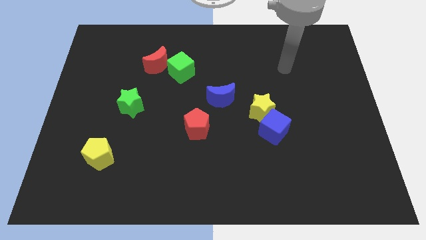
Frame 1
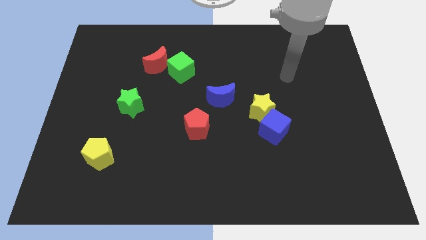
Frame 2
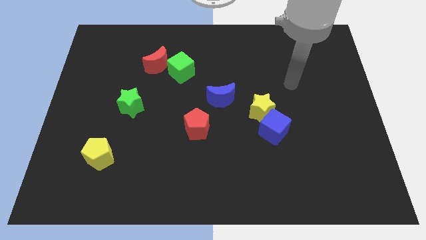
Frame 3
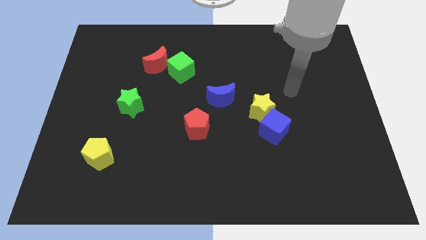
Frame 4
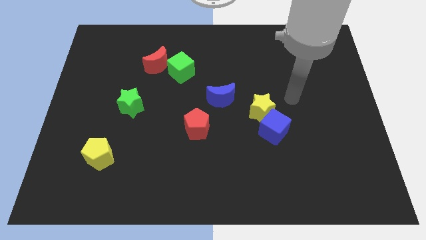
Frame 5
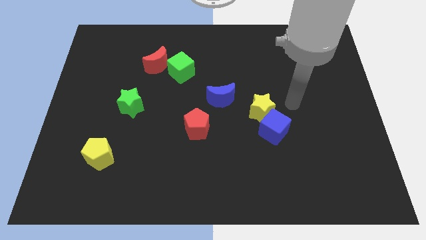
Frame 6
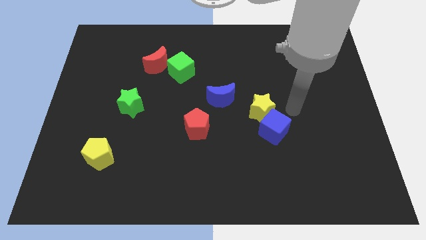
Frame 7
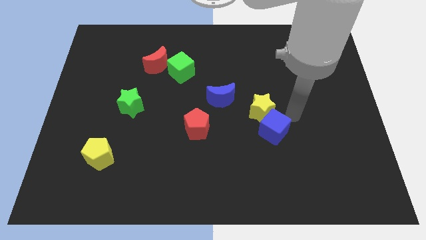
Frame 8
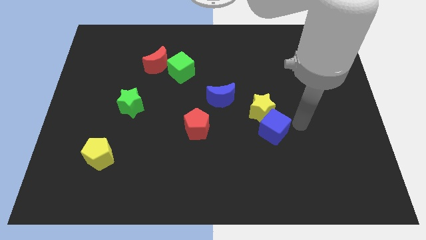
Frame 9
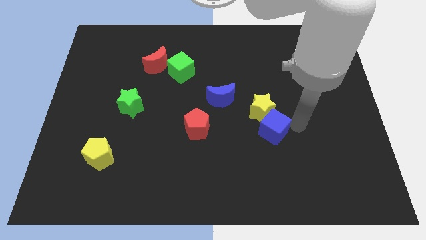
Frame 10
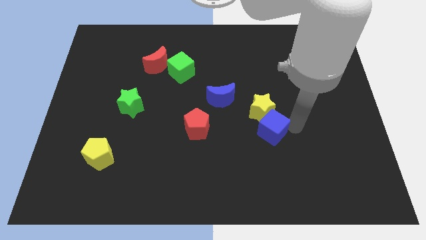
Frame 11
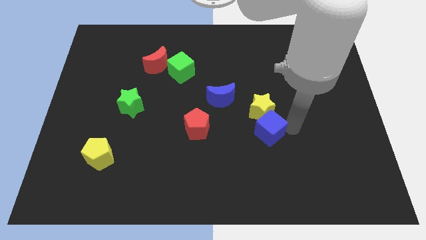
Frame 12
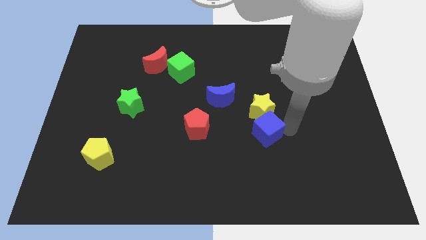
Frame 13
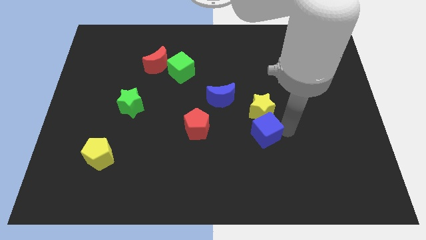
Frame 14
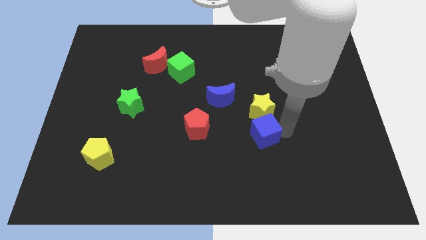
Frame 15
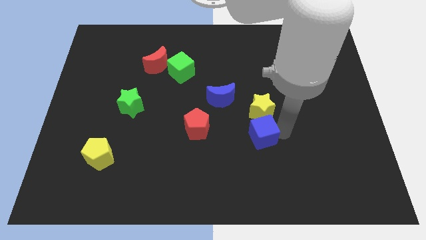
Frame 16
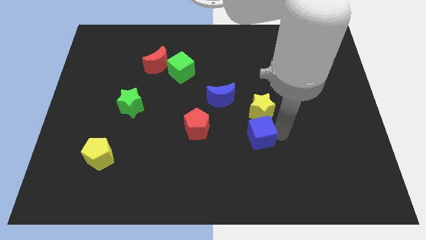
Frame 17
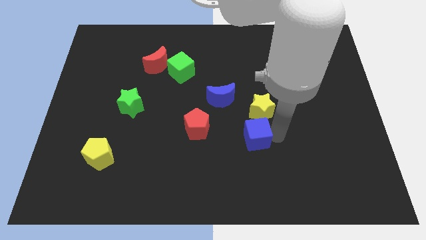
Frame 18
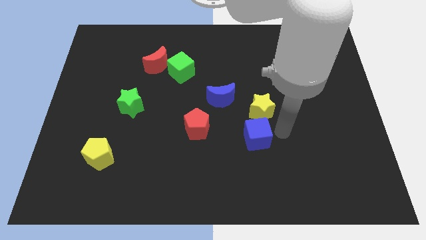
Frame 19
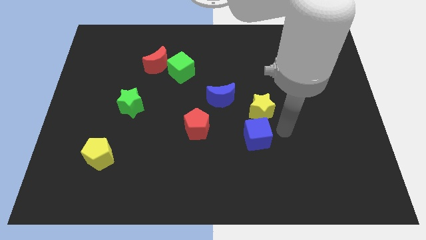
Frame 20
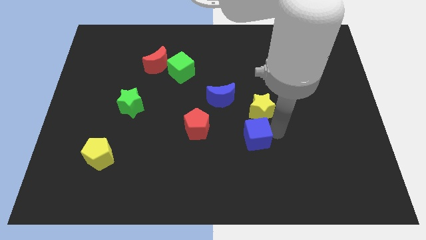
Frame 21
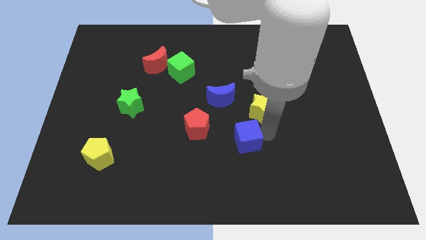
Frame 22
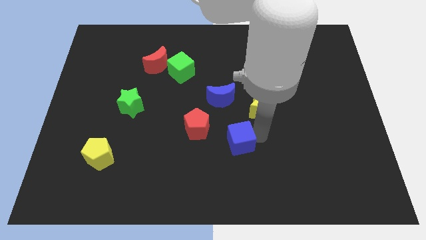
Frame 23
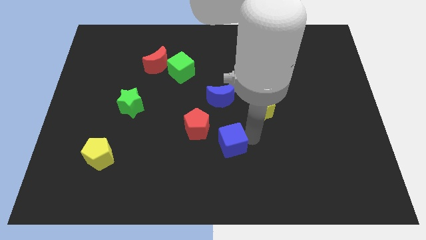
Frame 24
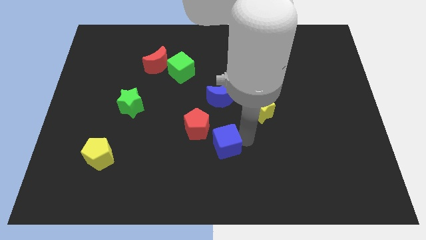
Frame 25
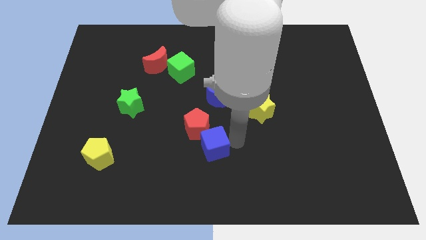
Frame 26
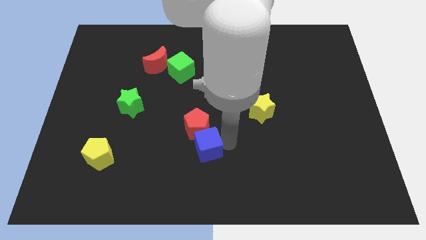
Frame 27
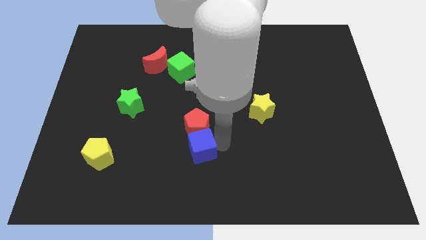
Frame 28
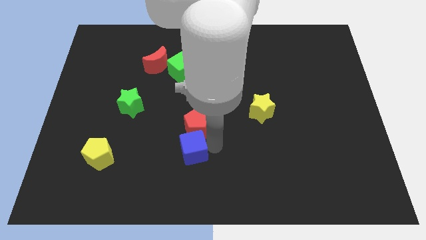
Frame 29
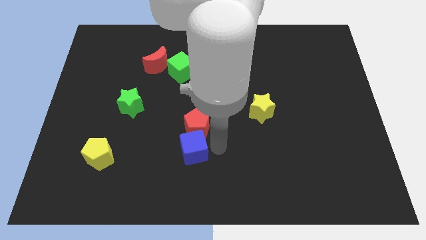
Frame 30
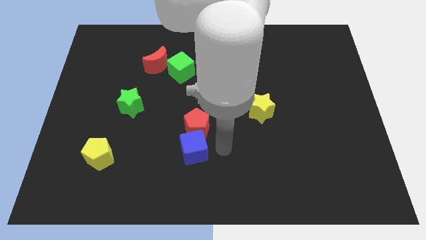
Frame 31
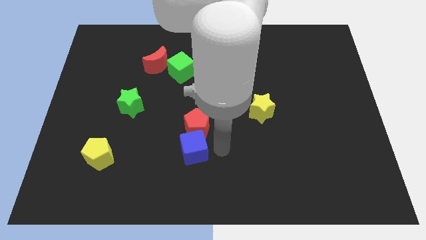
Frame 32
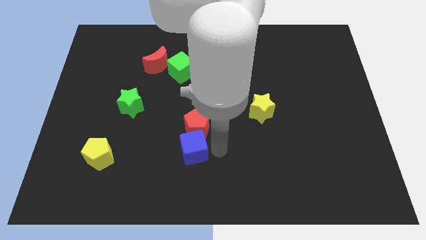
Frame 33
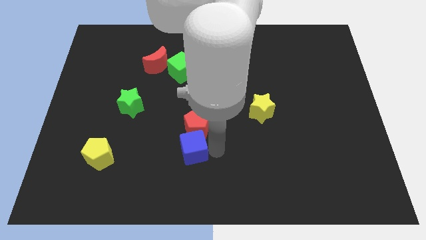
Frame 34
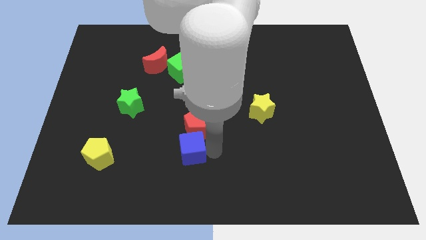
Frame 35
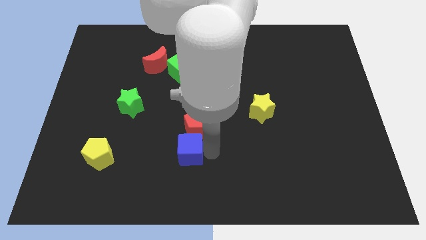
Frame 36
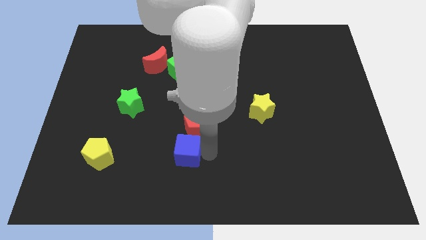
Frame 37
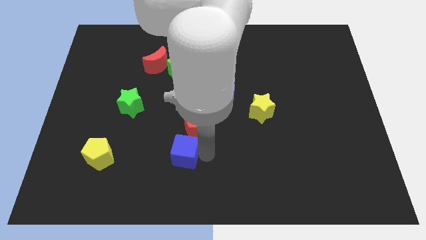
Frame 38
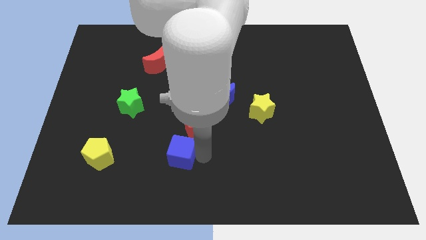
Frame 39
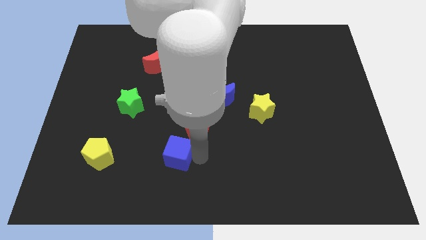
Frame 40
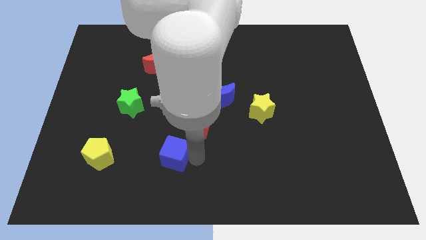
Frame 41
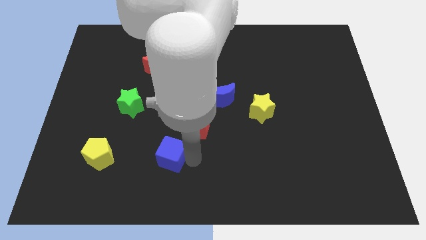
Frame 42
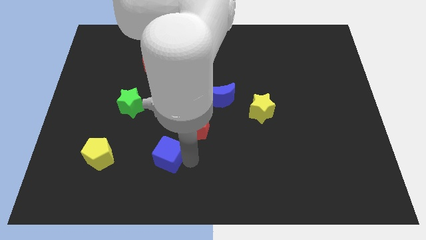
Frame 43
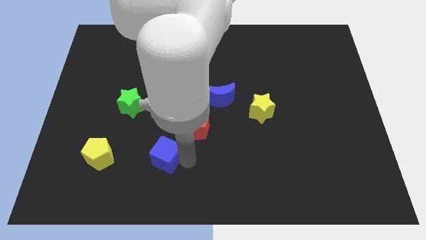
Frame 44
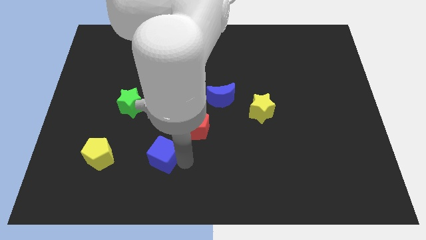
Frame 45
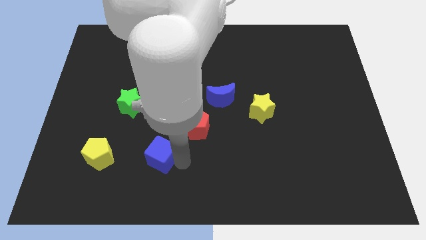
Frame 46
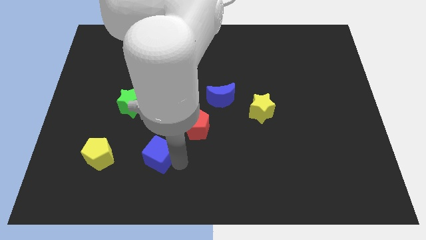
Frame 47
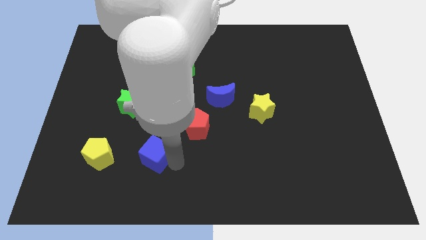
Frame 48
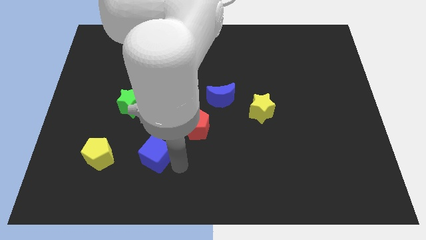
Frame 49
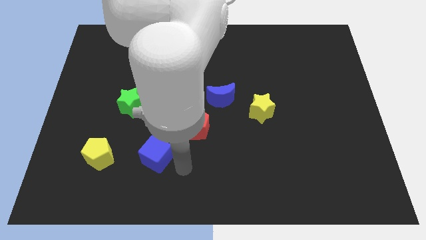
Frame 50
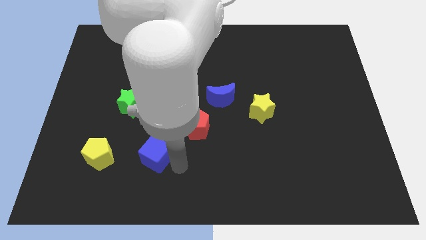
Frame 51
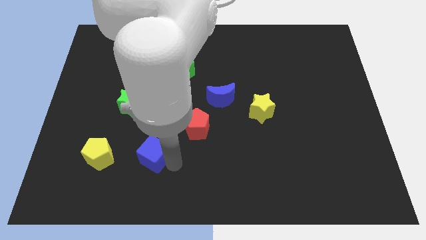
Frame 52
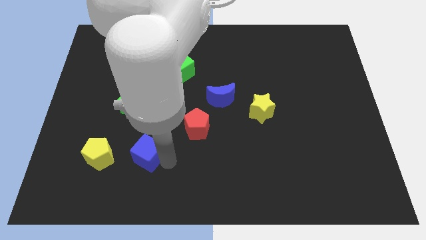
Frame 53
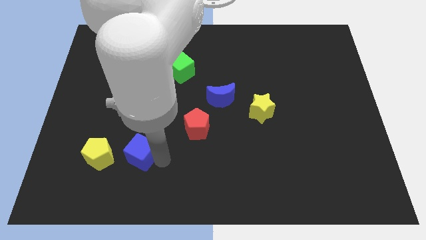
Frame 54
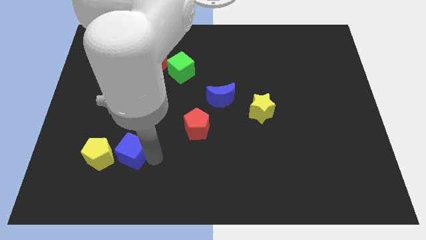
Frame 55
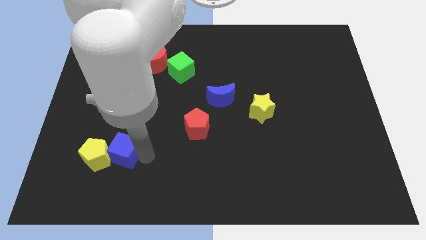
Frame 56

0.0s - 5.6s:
slide the blue cube to the yellow pentagon

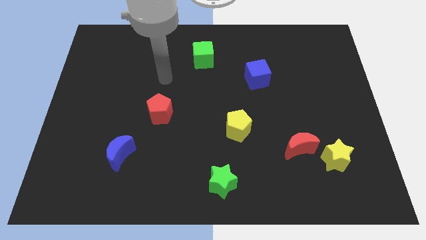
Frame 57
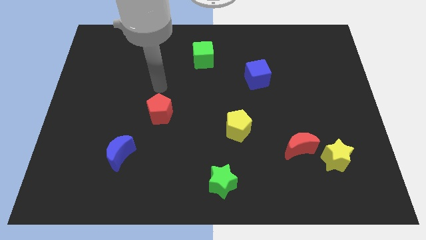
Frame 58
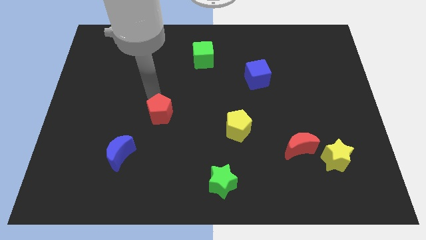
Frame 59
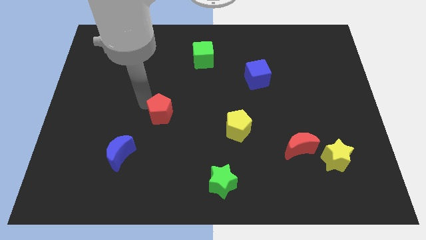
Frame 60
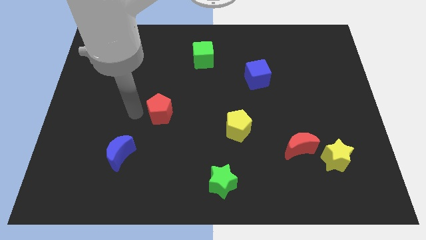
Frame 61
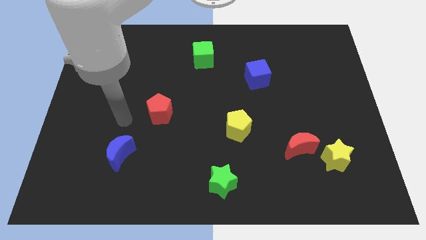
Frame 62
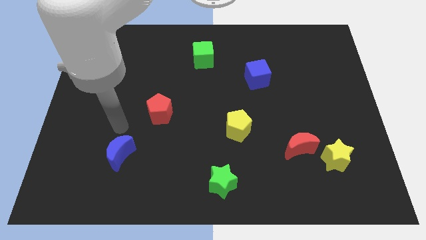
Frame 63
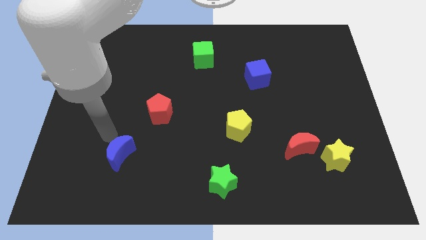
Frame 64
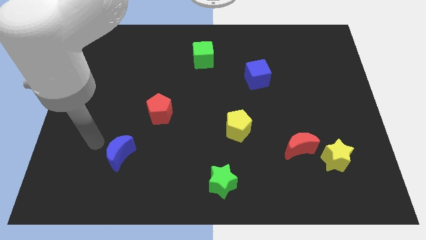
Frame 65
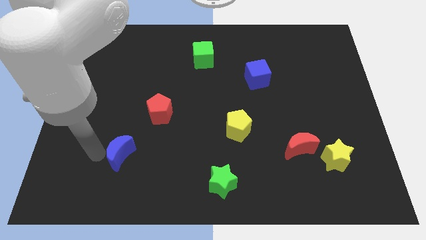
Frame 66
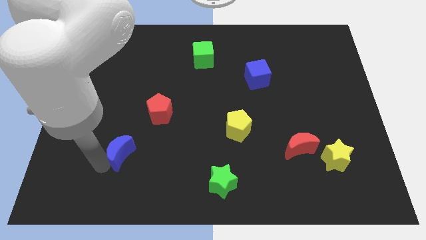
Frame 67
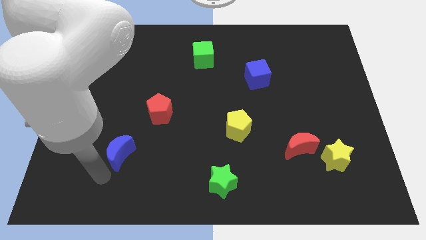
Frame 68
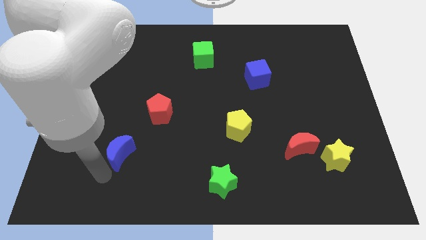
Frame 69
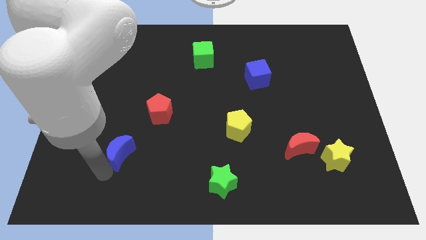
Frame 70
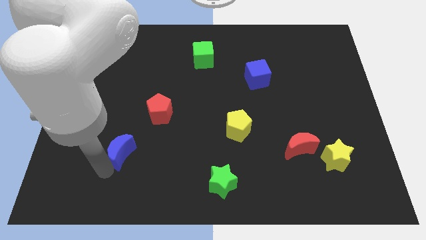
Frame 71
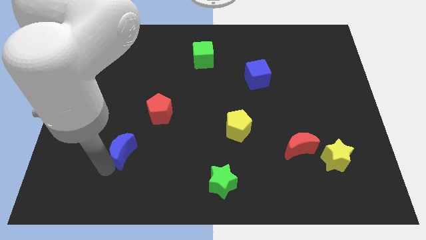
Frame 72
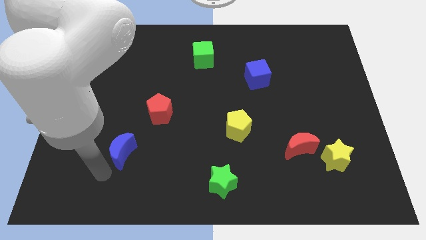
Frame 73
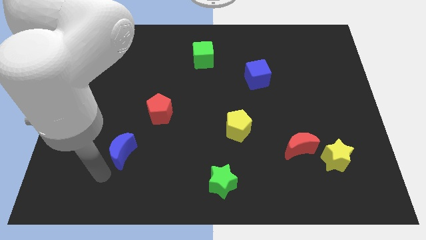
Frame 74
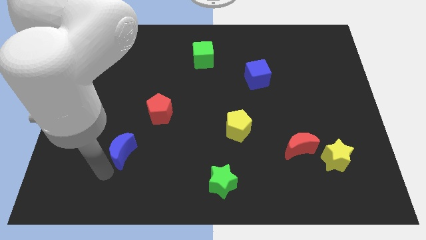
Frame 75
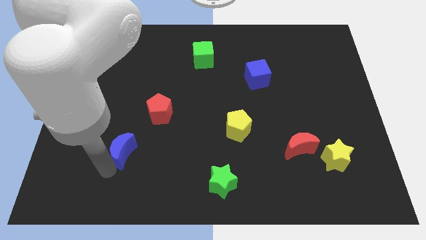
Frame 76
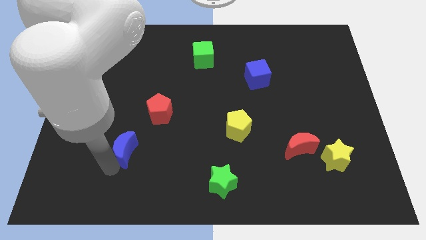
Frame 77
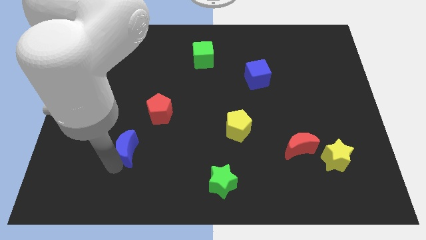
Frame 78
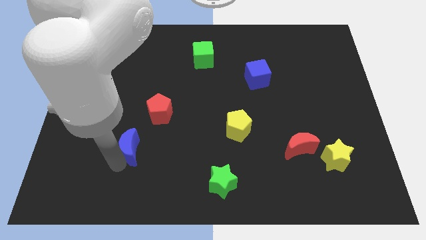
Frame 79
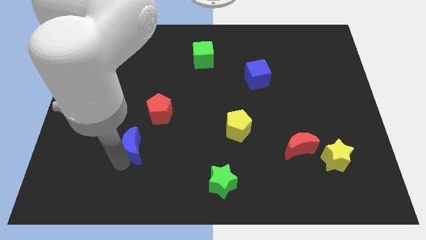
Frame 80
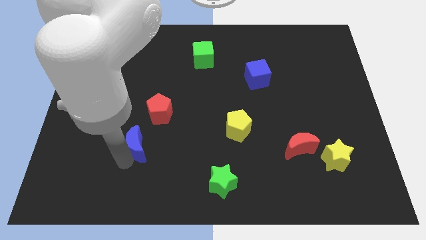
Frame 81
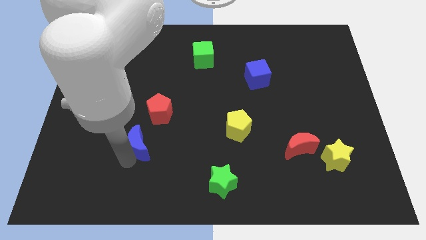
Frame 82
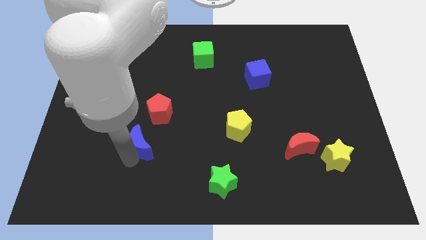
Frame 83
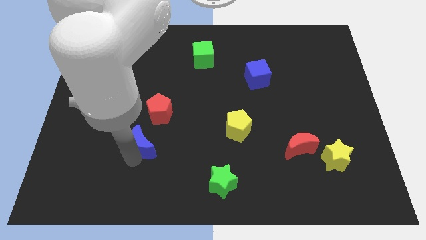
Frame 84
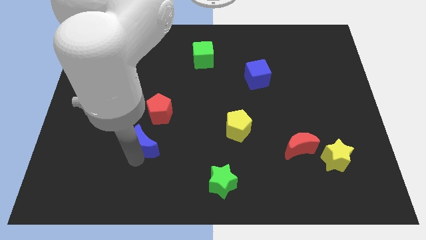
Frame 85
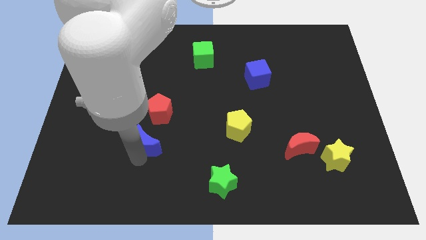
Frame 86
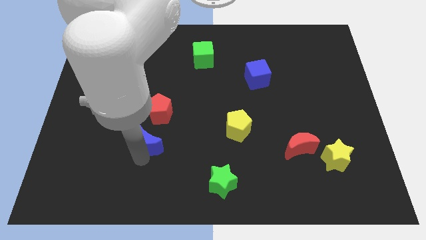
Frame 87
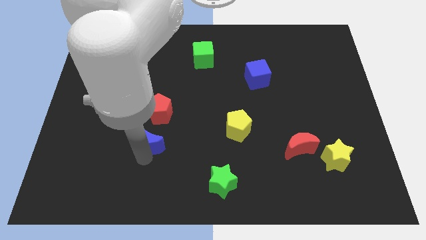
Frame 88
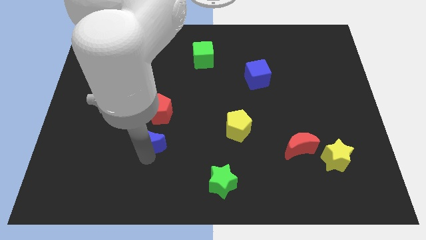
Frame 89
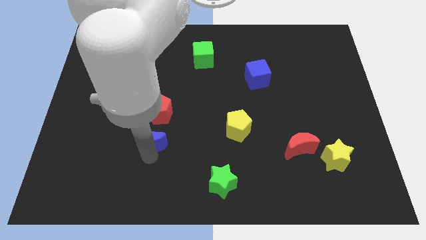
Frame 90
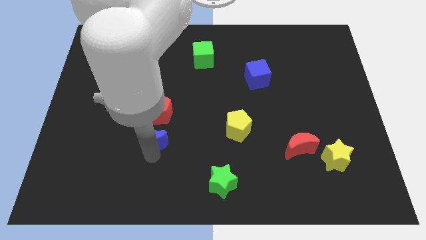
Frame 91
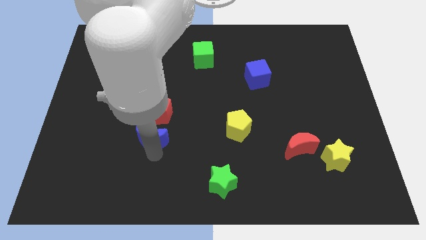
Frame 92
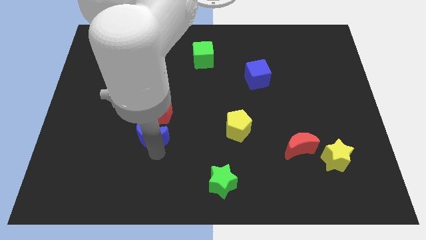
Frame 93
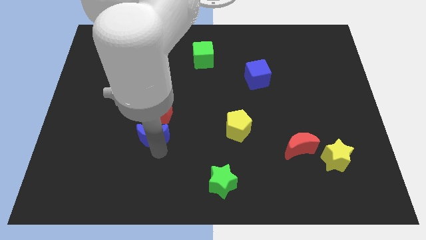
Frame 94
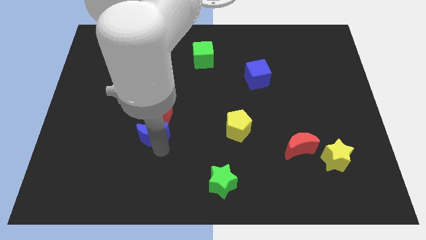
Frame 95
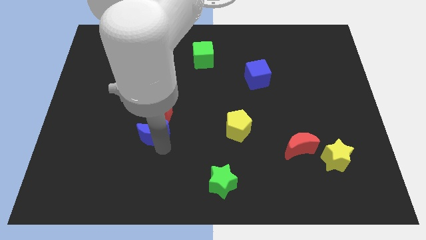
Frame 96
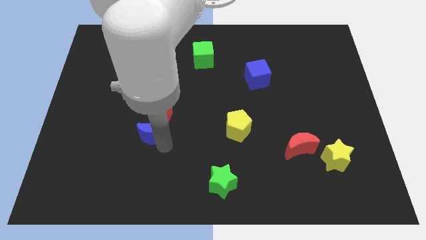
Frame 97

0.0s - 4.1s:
push the blue moon towards the red pentagon
